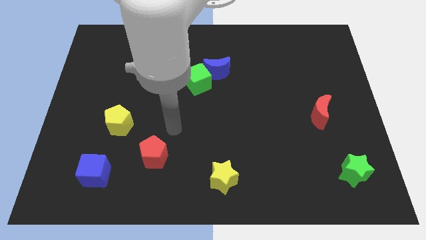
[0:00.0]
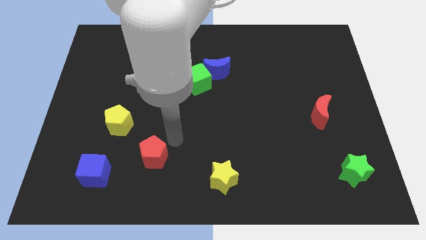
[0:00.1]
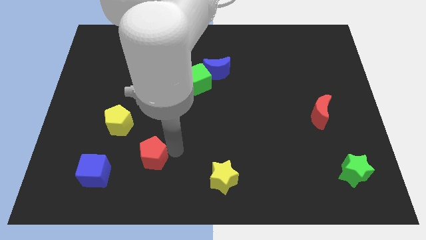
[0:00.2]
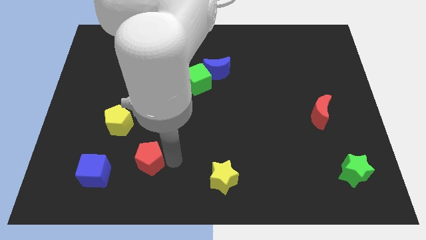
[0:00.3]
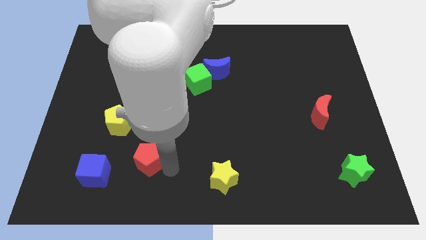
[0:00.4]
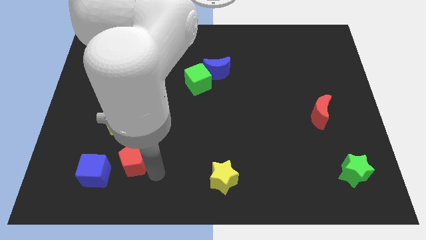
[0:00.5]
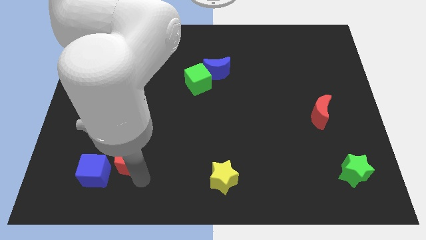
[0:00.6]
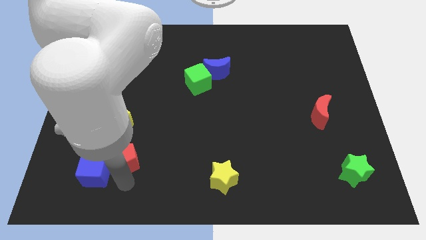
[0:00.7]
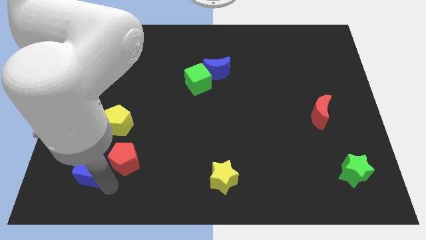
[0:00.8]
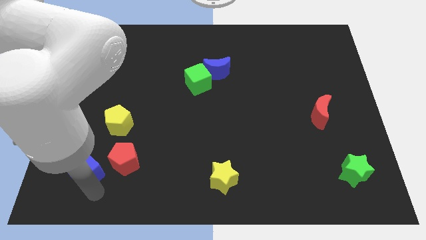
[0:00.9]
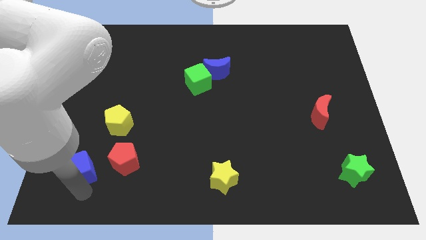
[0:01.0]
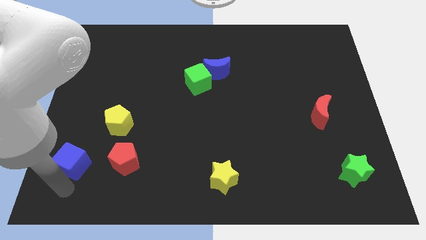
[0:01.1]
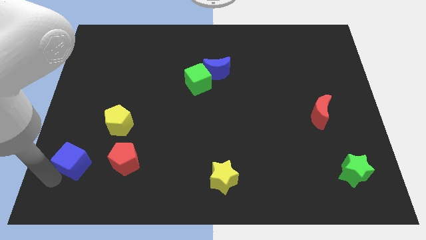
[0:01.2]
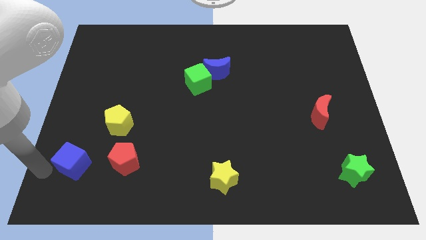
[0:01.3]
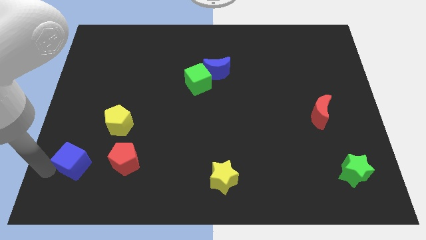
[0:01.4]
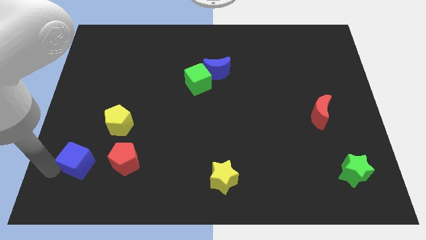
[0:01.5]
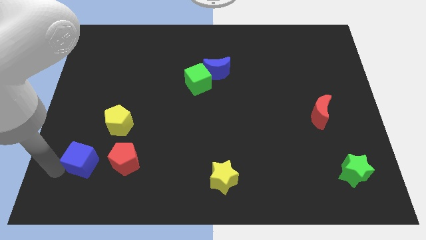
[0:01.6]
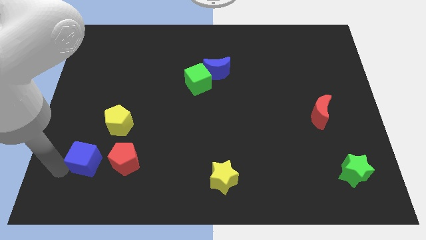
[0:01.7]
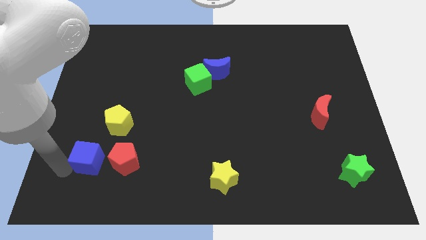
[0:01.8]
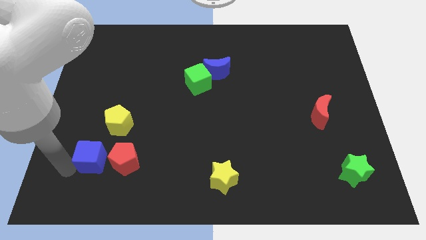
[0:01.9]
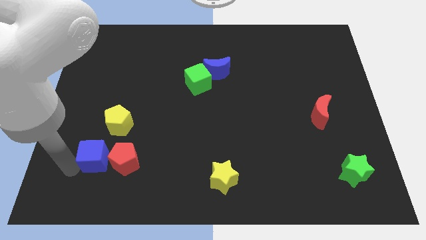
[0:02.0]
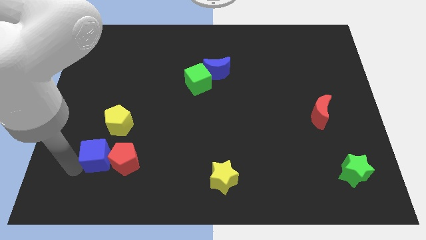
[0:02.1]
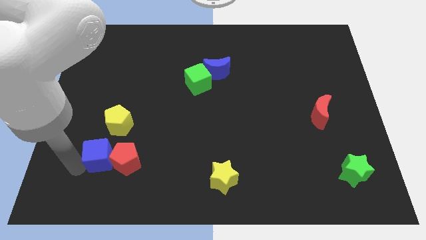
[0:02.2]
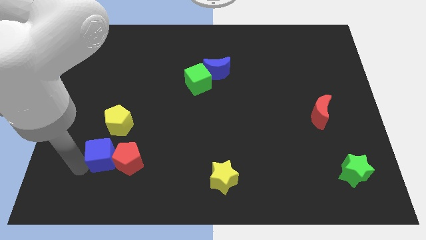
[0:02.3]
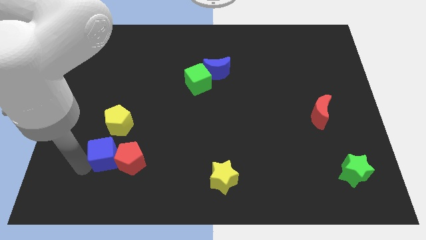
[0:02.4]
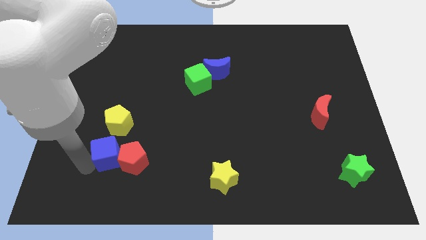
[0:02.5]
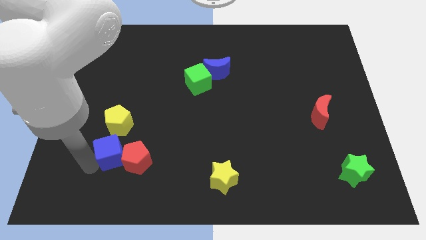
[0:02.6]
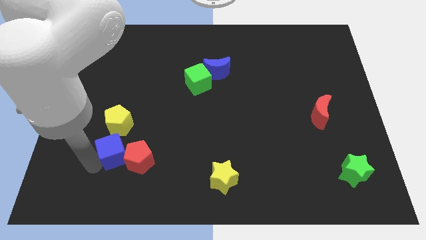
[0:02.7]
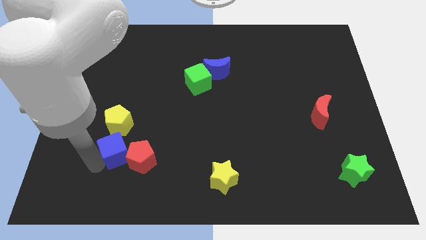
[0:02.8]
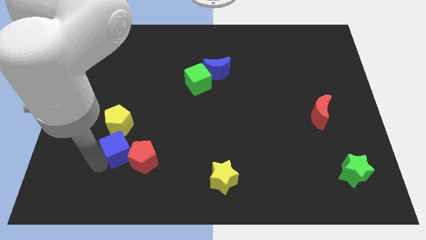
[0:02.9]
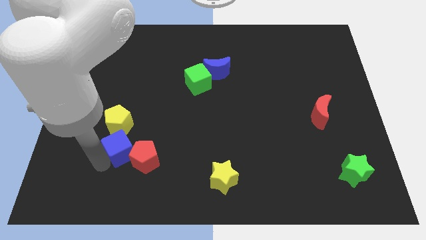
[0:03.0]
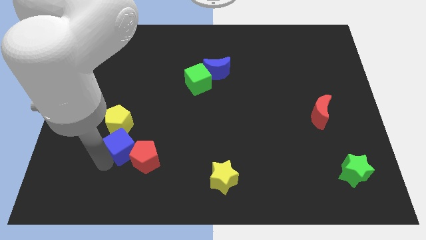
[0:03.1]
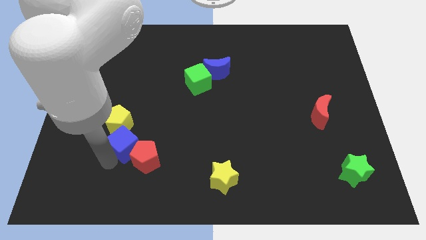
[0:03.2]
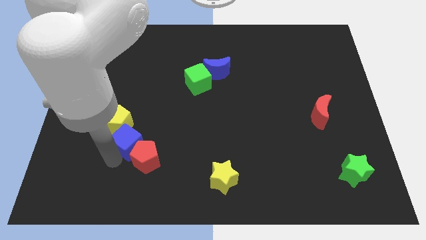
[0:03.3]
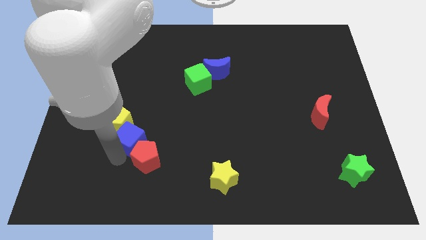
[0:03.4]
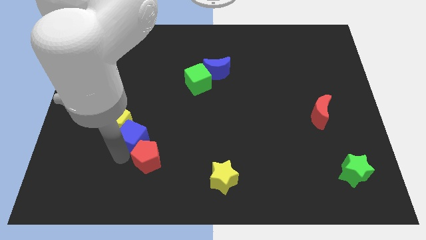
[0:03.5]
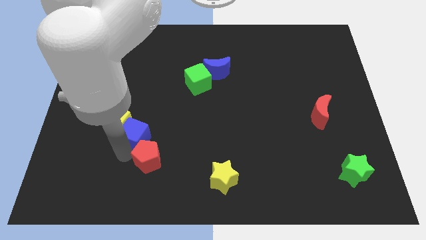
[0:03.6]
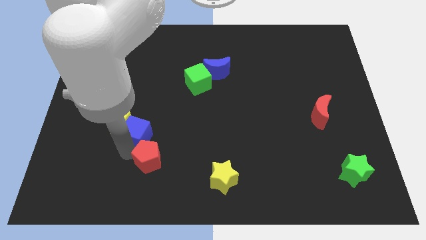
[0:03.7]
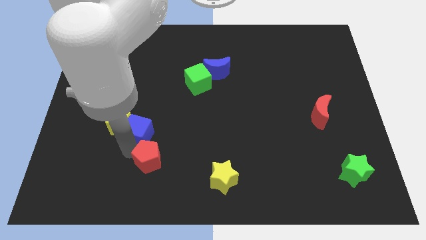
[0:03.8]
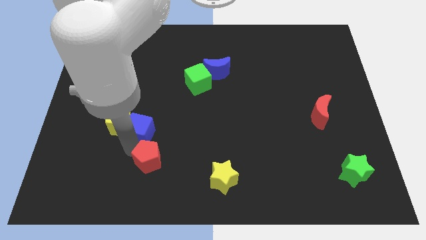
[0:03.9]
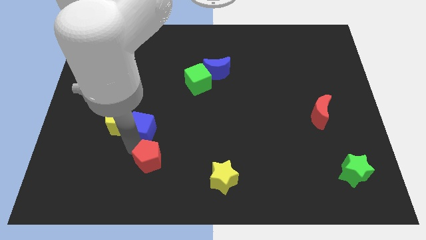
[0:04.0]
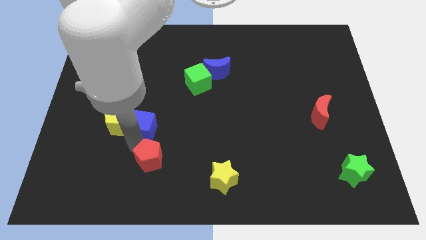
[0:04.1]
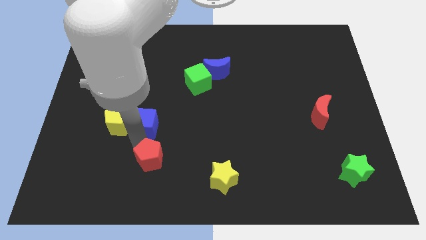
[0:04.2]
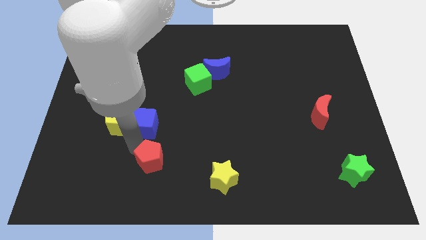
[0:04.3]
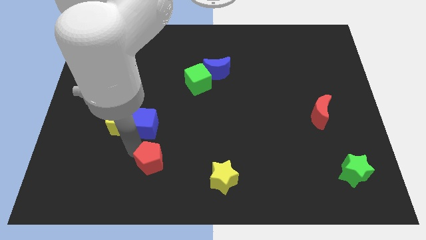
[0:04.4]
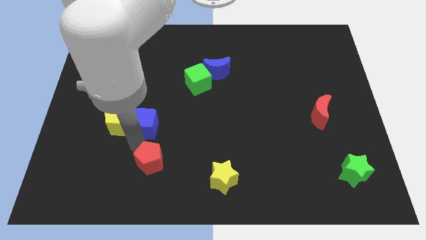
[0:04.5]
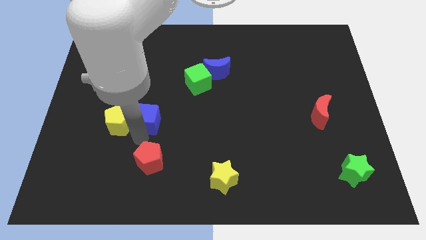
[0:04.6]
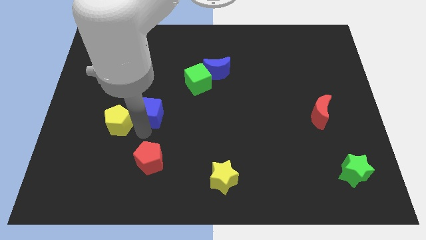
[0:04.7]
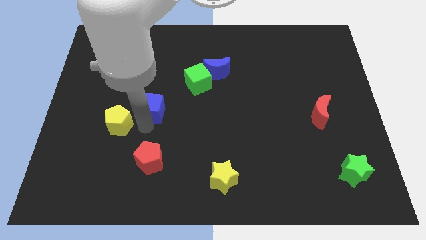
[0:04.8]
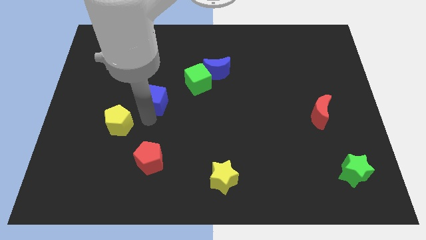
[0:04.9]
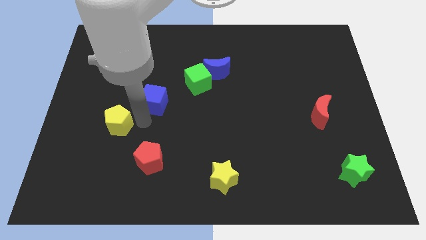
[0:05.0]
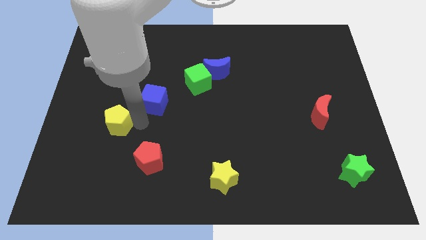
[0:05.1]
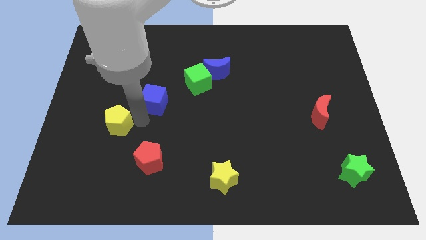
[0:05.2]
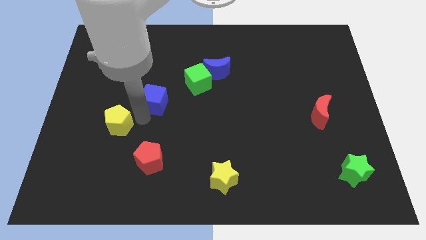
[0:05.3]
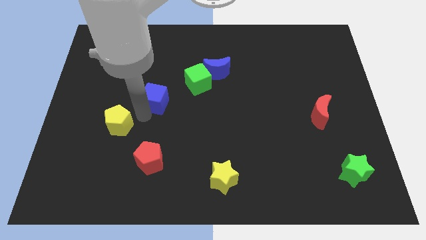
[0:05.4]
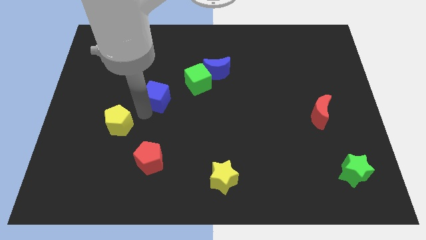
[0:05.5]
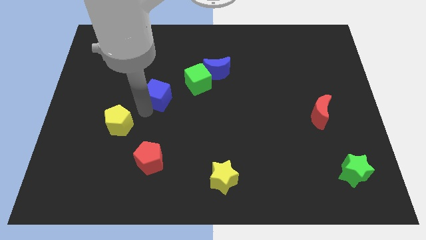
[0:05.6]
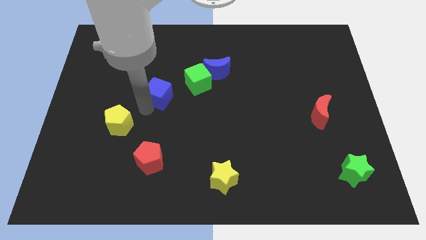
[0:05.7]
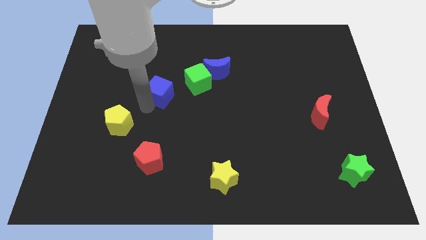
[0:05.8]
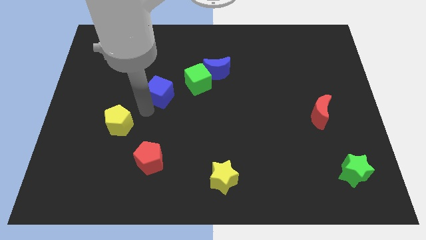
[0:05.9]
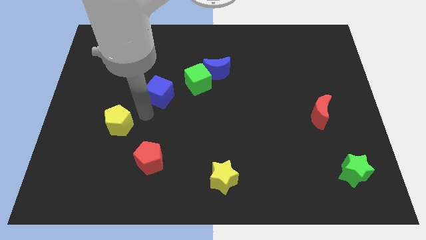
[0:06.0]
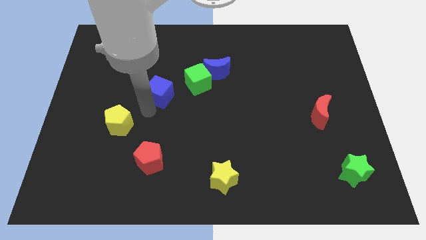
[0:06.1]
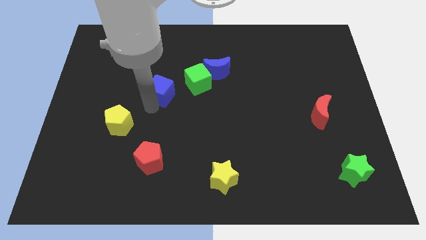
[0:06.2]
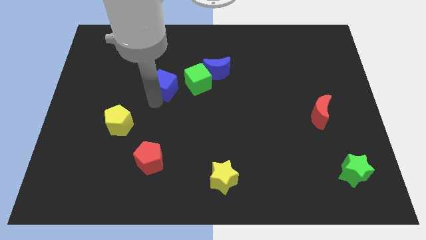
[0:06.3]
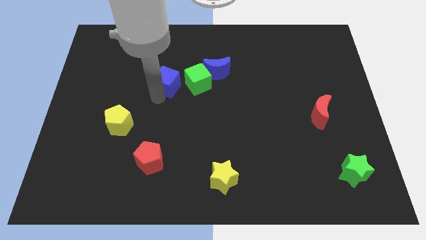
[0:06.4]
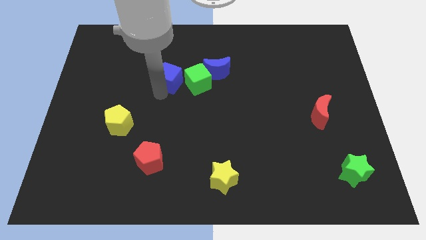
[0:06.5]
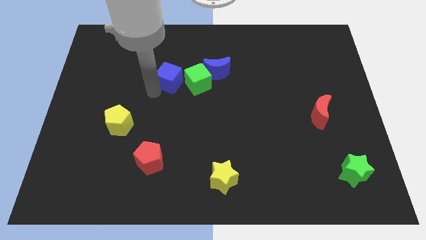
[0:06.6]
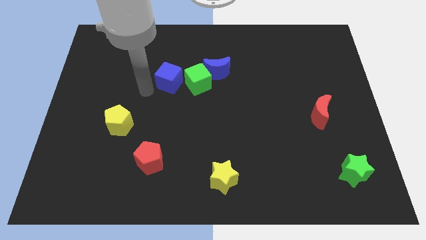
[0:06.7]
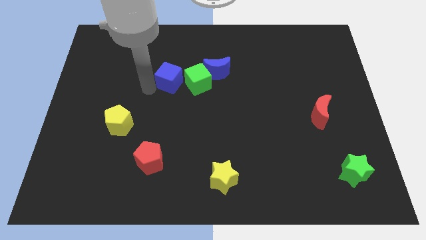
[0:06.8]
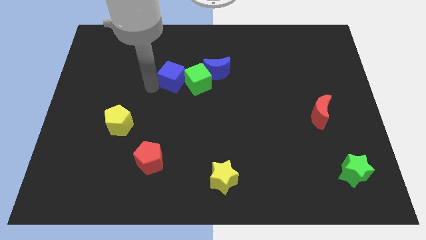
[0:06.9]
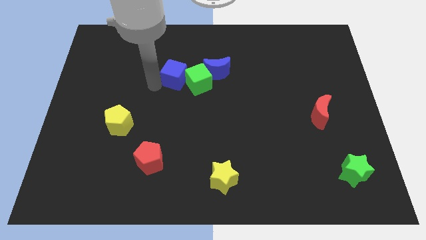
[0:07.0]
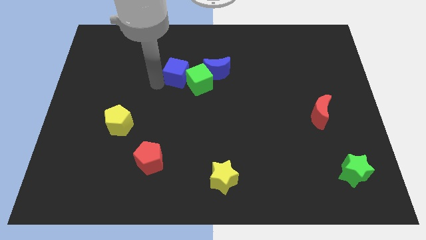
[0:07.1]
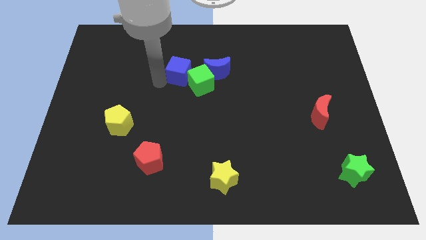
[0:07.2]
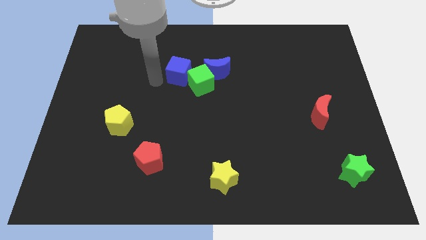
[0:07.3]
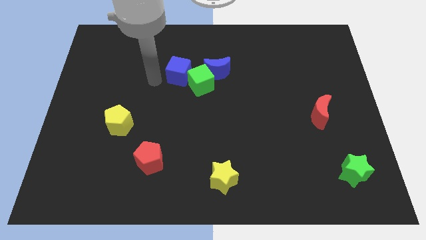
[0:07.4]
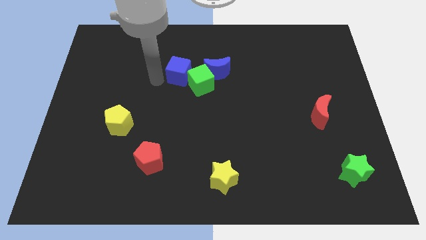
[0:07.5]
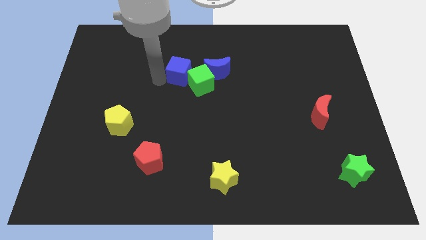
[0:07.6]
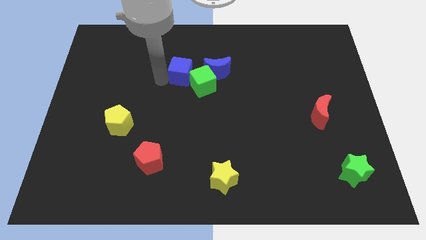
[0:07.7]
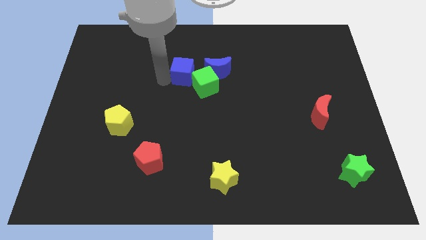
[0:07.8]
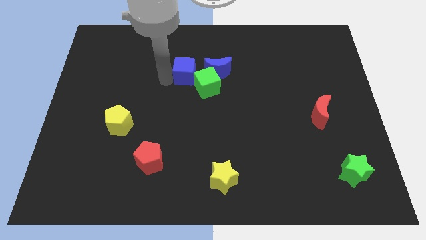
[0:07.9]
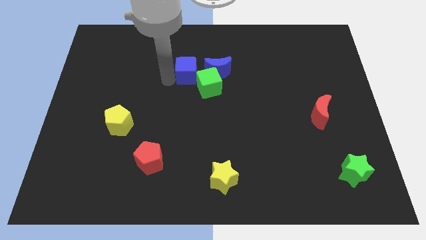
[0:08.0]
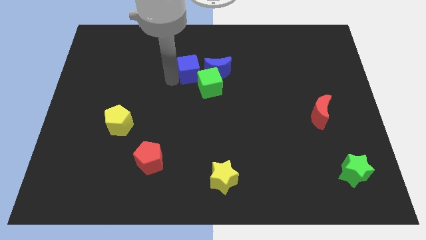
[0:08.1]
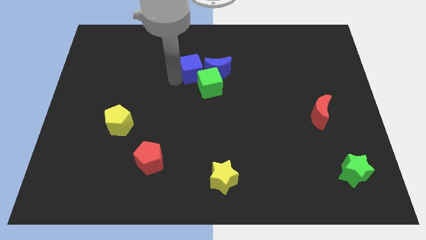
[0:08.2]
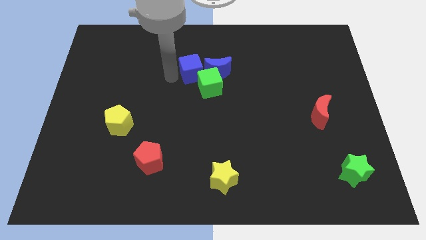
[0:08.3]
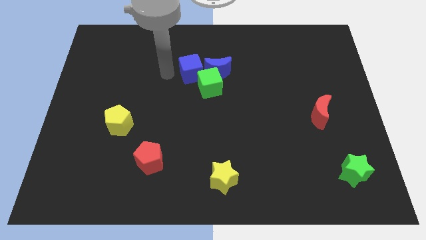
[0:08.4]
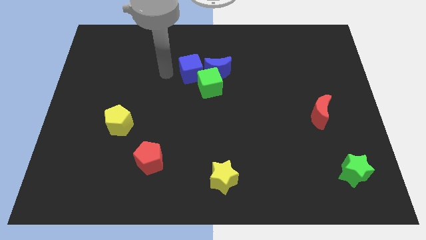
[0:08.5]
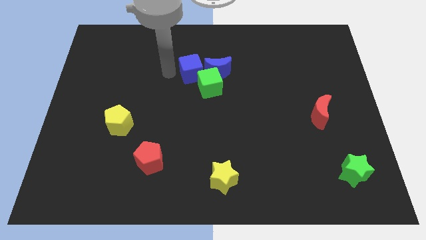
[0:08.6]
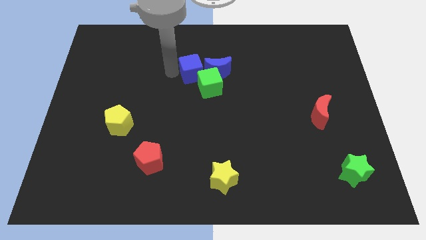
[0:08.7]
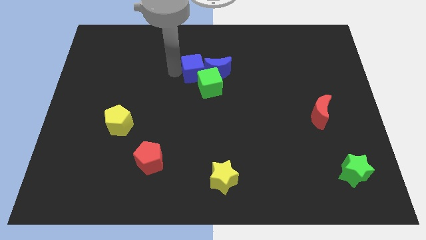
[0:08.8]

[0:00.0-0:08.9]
put the blue cube close to the blue moon
